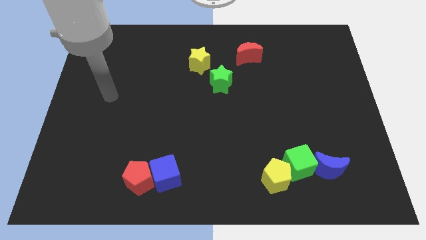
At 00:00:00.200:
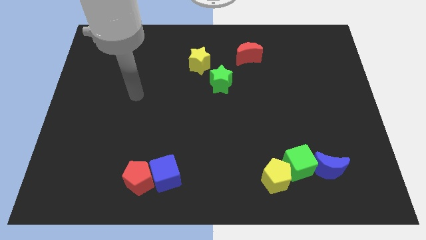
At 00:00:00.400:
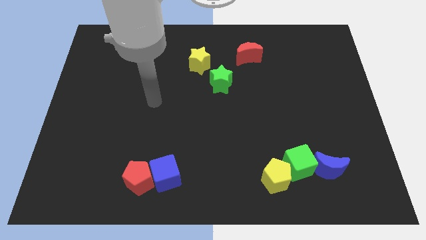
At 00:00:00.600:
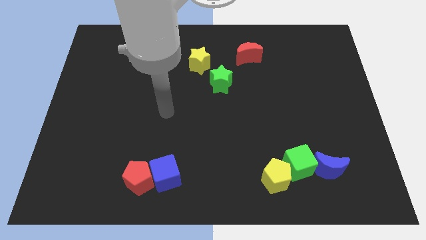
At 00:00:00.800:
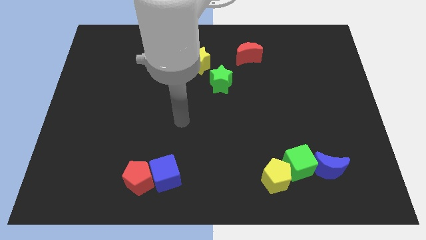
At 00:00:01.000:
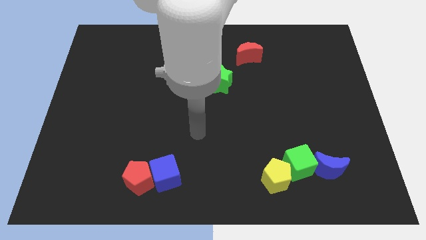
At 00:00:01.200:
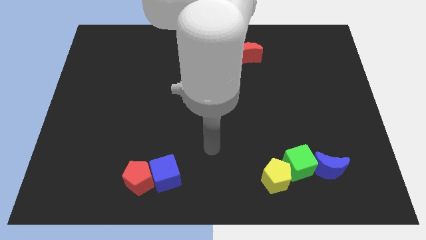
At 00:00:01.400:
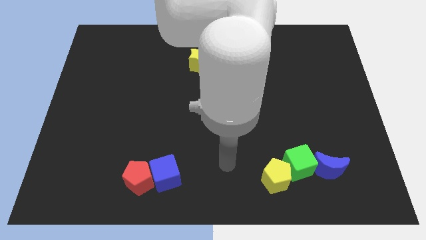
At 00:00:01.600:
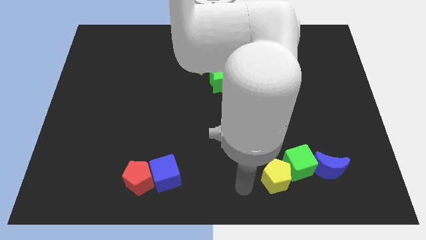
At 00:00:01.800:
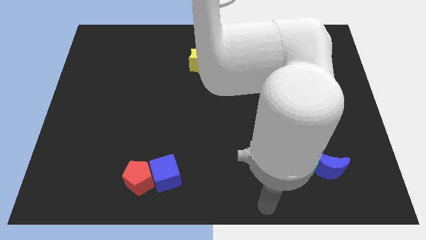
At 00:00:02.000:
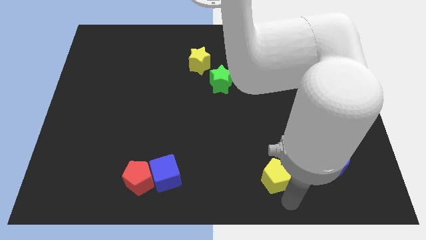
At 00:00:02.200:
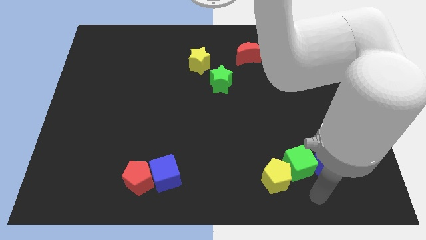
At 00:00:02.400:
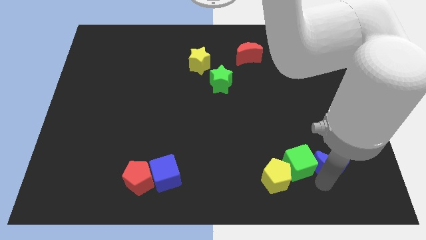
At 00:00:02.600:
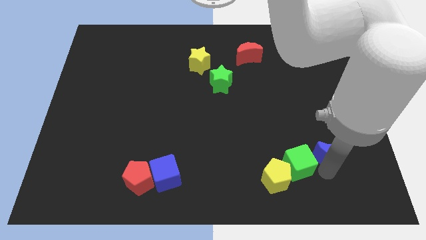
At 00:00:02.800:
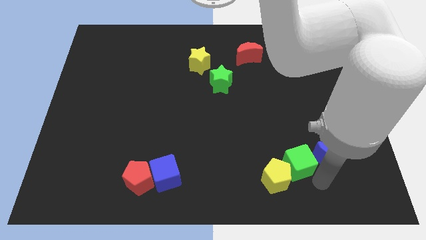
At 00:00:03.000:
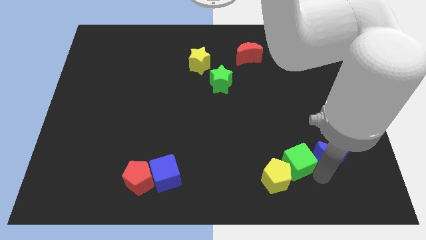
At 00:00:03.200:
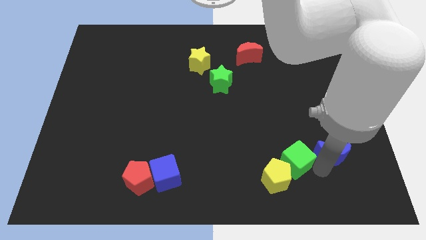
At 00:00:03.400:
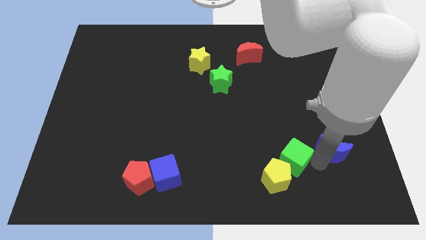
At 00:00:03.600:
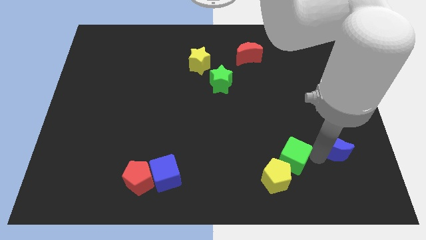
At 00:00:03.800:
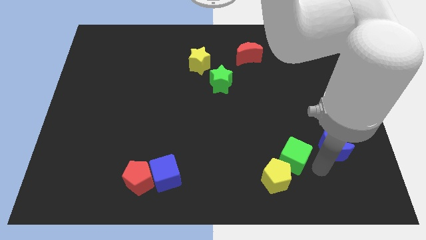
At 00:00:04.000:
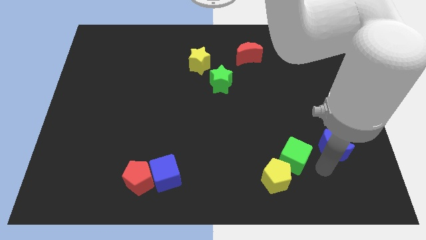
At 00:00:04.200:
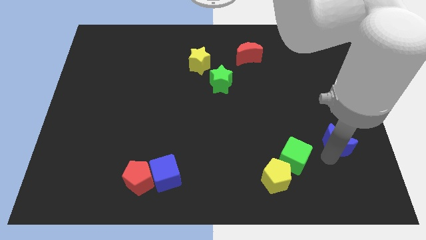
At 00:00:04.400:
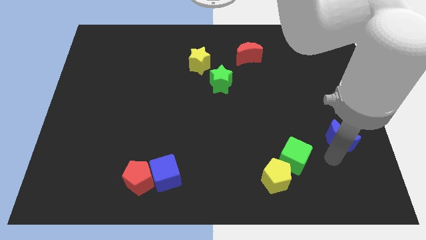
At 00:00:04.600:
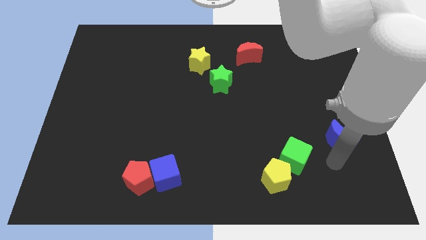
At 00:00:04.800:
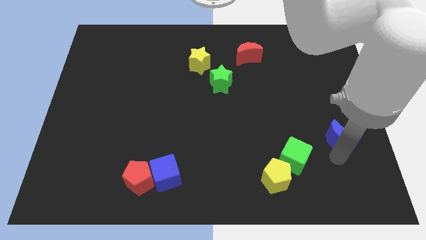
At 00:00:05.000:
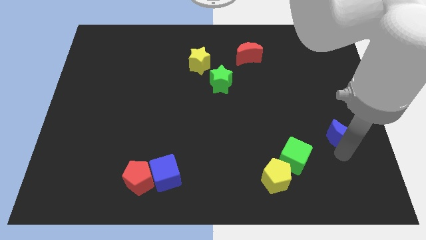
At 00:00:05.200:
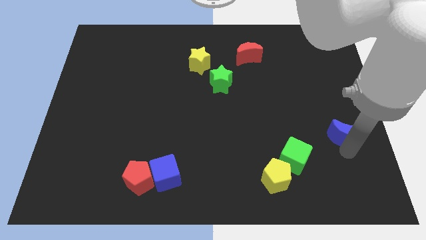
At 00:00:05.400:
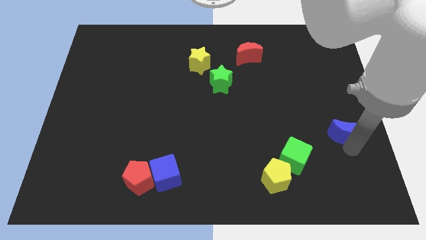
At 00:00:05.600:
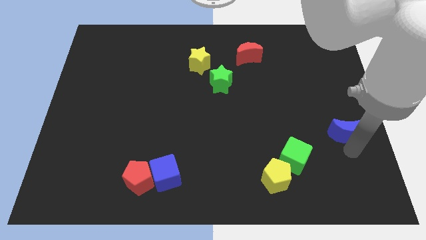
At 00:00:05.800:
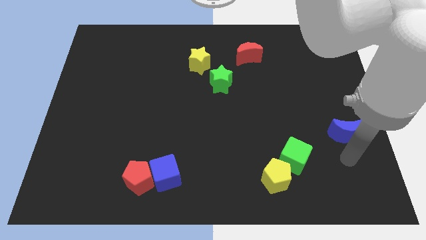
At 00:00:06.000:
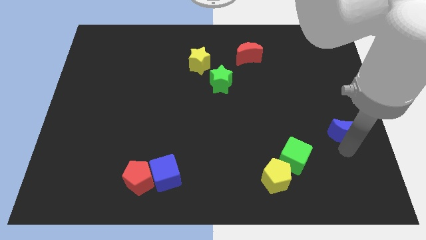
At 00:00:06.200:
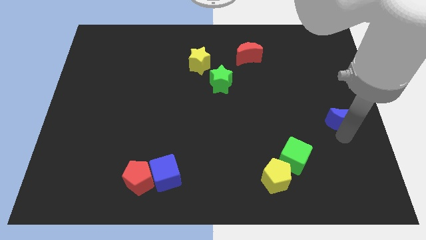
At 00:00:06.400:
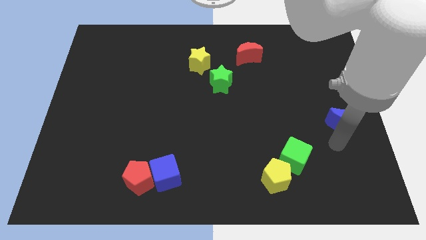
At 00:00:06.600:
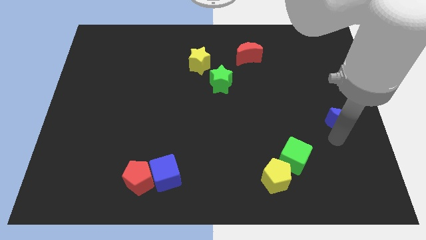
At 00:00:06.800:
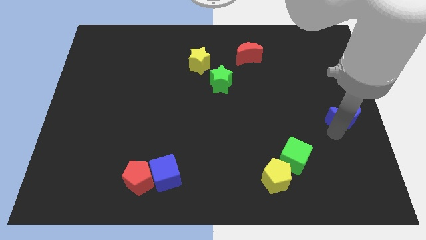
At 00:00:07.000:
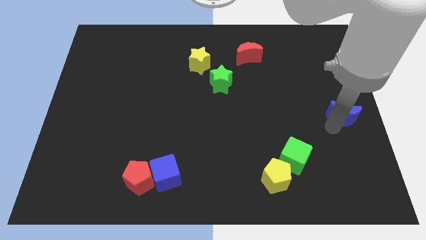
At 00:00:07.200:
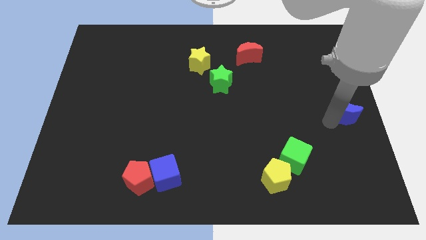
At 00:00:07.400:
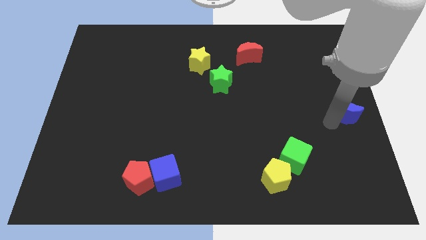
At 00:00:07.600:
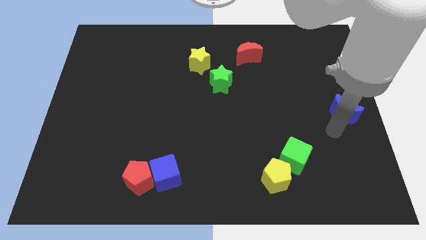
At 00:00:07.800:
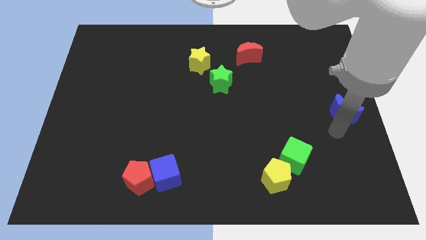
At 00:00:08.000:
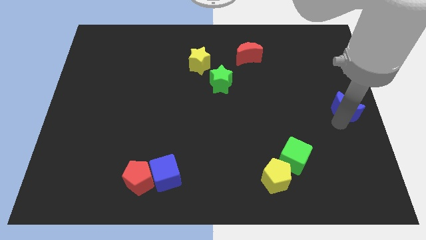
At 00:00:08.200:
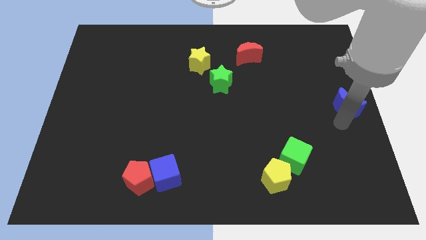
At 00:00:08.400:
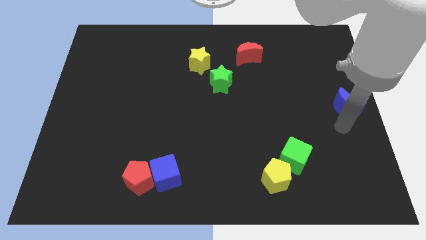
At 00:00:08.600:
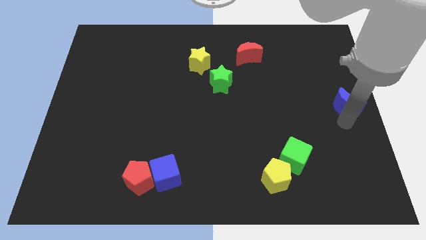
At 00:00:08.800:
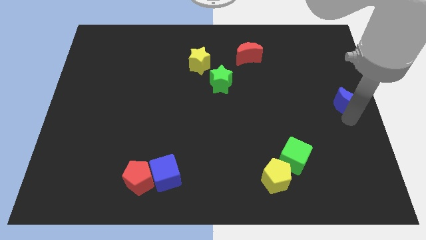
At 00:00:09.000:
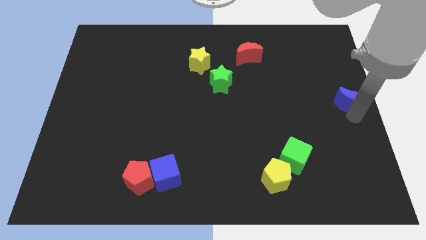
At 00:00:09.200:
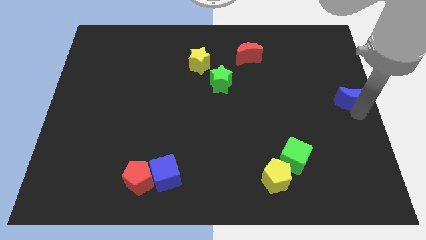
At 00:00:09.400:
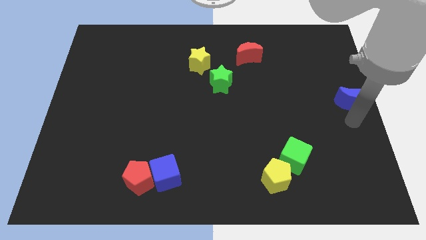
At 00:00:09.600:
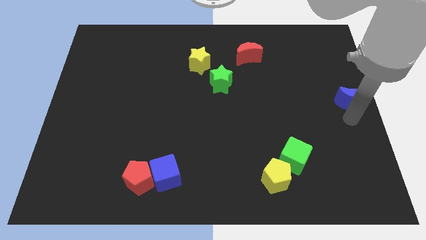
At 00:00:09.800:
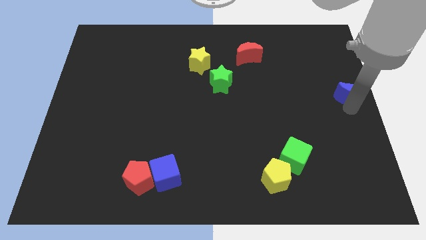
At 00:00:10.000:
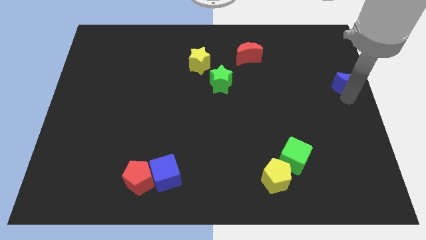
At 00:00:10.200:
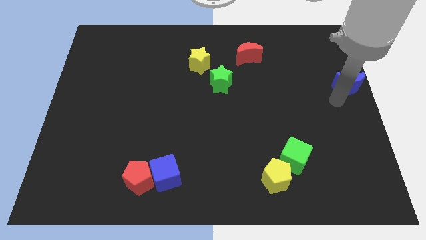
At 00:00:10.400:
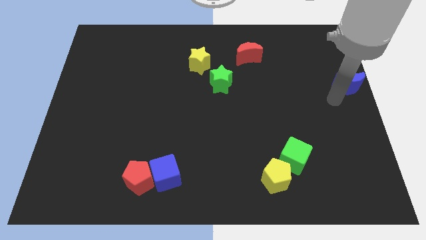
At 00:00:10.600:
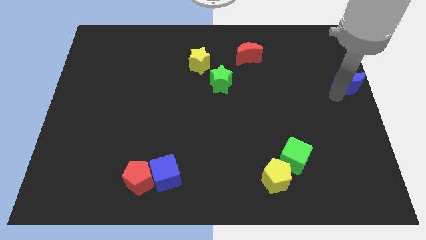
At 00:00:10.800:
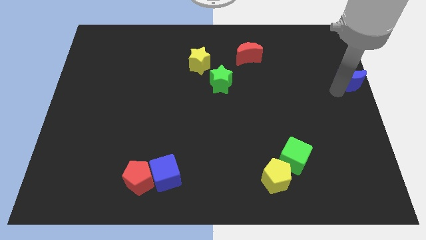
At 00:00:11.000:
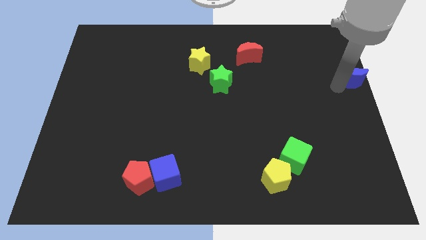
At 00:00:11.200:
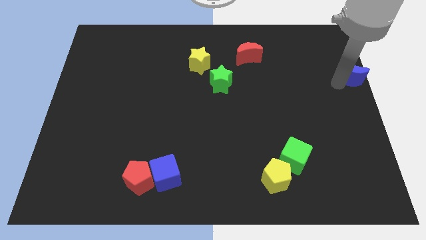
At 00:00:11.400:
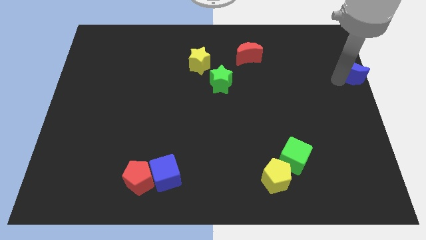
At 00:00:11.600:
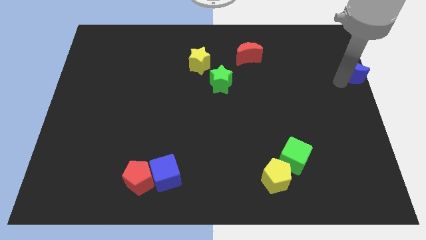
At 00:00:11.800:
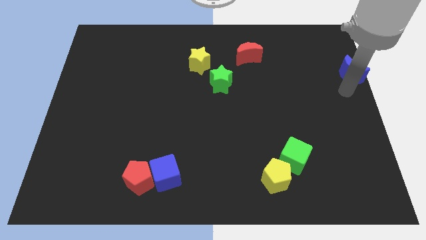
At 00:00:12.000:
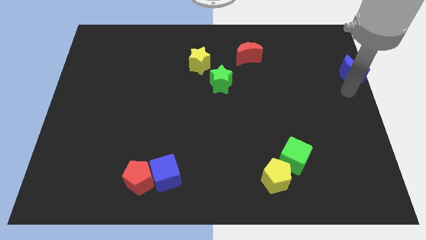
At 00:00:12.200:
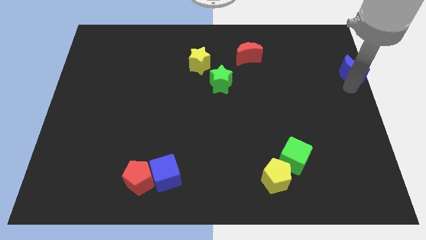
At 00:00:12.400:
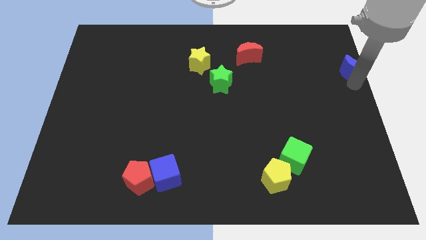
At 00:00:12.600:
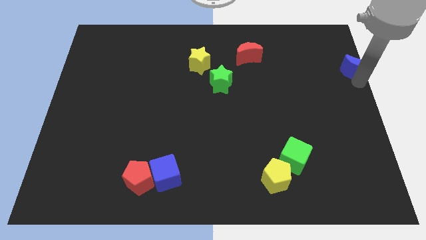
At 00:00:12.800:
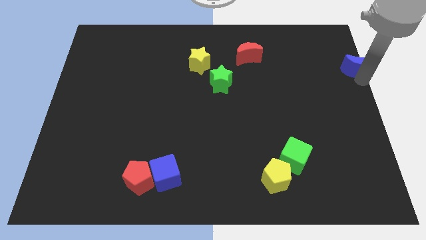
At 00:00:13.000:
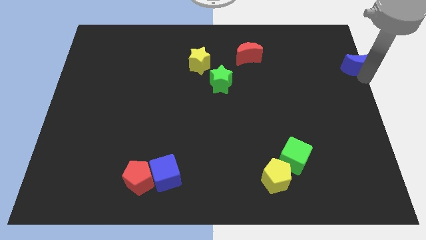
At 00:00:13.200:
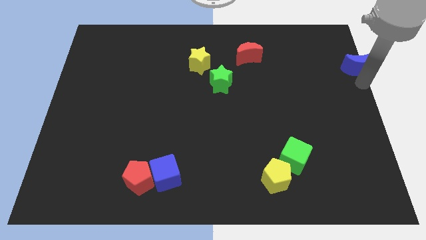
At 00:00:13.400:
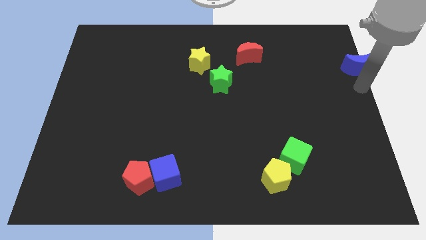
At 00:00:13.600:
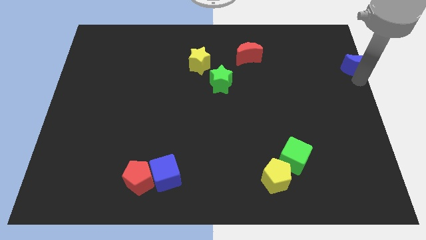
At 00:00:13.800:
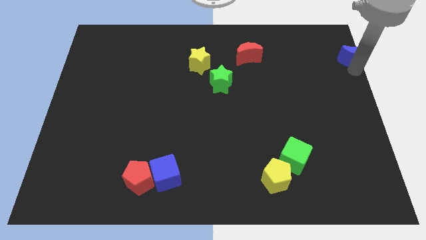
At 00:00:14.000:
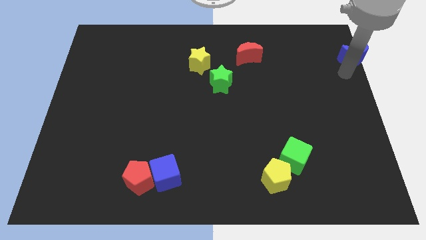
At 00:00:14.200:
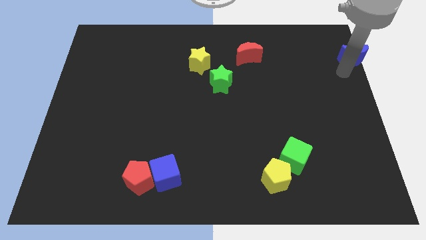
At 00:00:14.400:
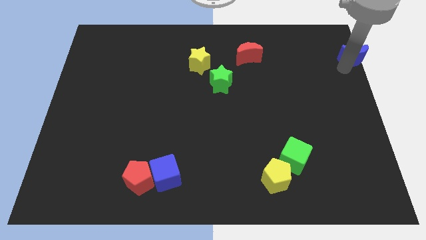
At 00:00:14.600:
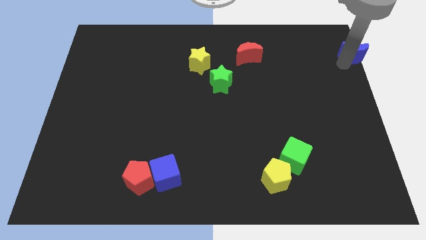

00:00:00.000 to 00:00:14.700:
move the blue moon to the top right corner
